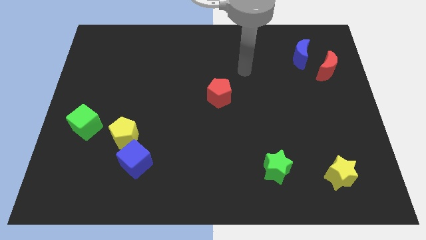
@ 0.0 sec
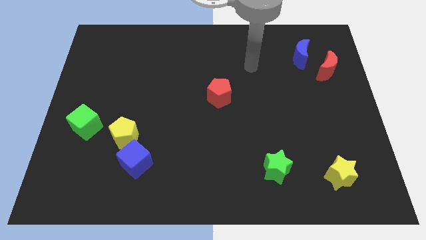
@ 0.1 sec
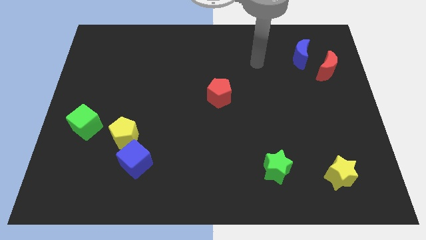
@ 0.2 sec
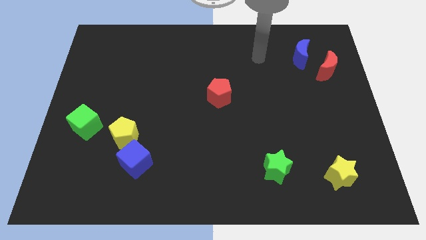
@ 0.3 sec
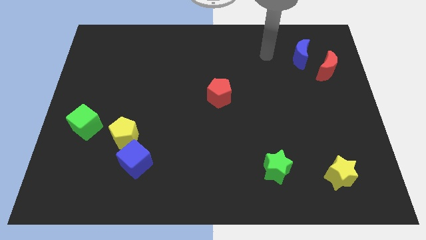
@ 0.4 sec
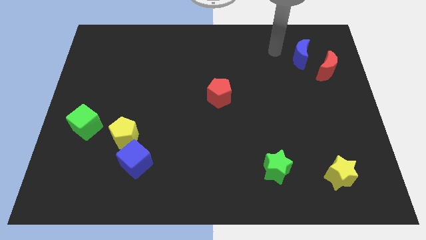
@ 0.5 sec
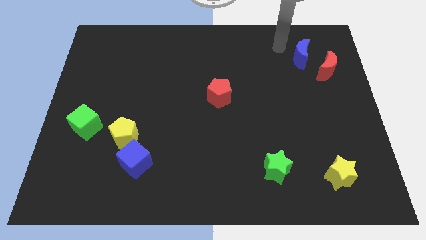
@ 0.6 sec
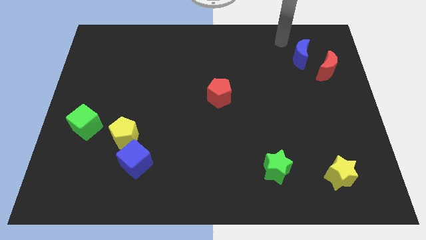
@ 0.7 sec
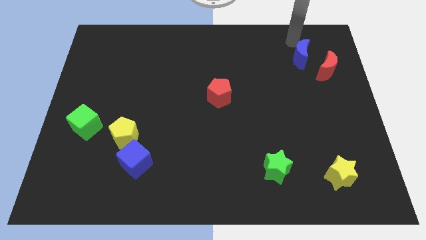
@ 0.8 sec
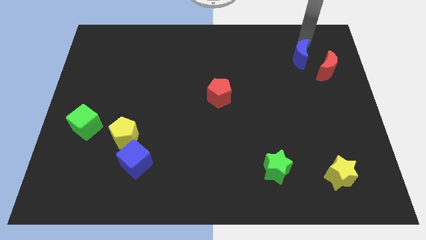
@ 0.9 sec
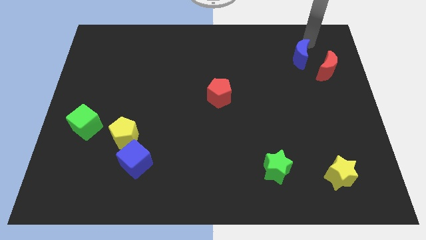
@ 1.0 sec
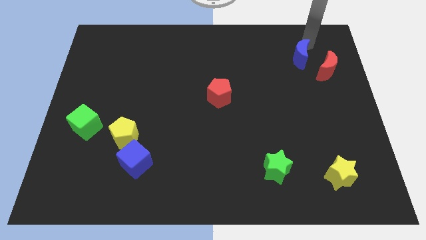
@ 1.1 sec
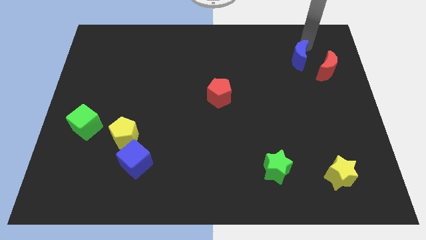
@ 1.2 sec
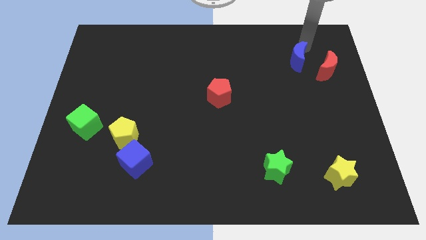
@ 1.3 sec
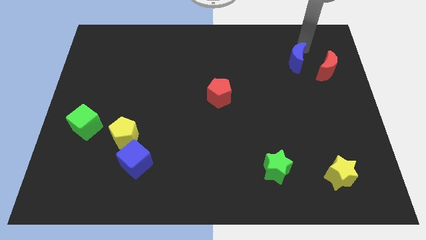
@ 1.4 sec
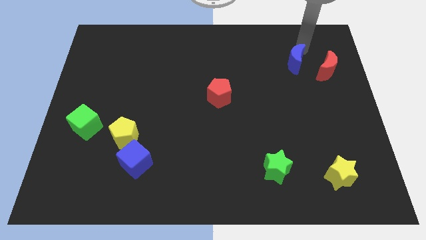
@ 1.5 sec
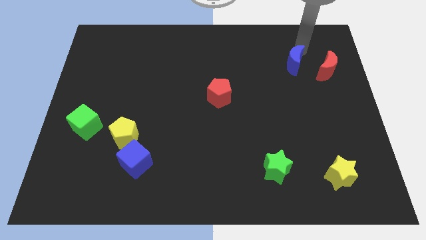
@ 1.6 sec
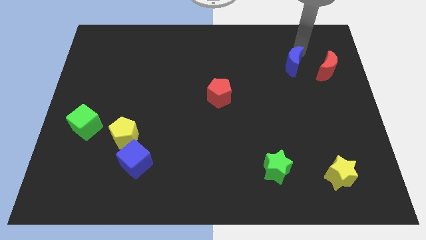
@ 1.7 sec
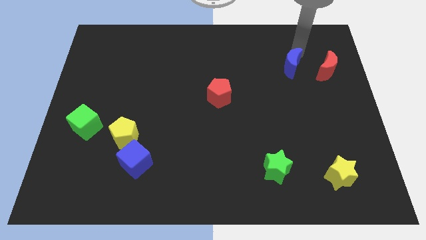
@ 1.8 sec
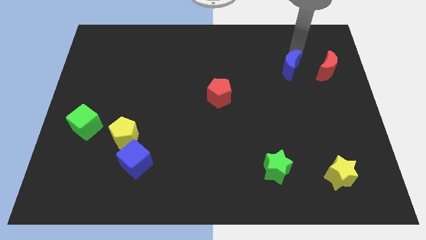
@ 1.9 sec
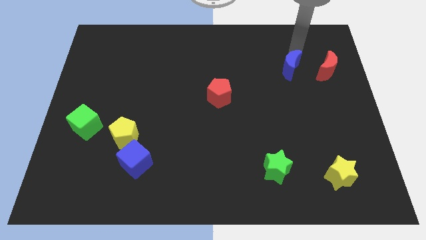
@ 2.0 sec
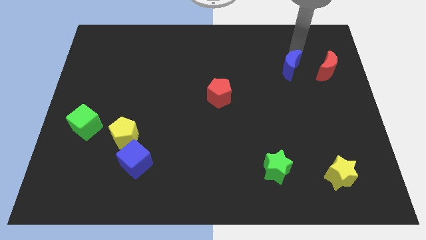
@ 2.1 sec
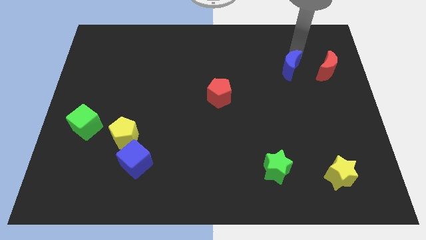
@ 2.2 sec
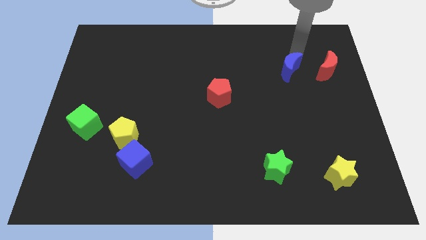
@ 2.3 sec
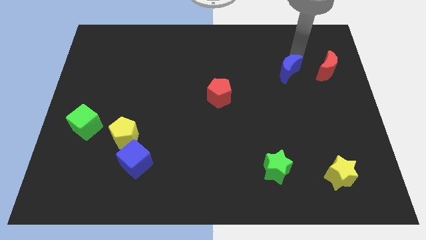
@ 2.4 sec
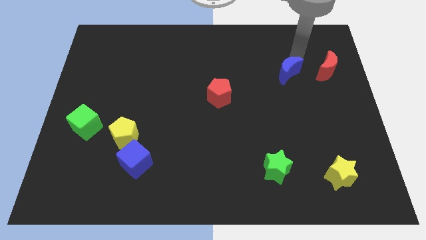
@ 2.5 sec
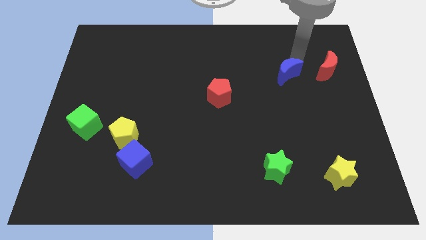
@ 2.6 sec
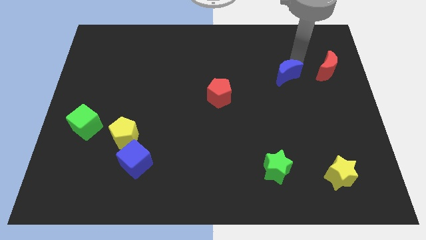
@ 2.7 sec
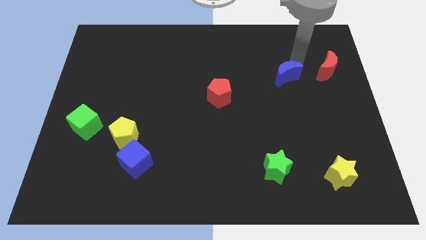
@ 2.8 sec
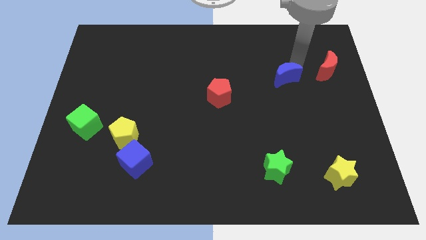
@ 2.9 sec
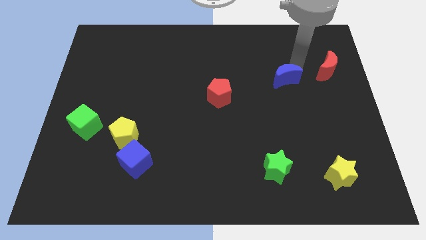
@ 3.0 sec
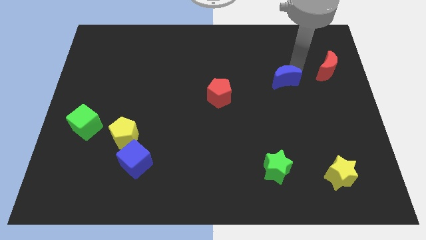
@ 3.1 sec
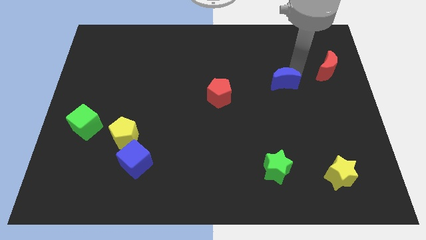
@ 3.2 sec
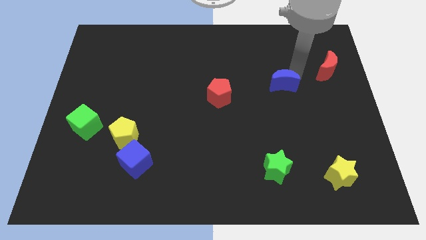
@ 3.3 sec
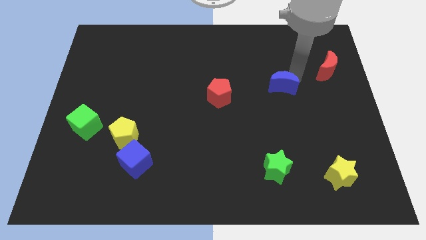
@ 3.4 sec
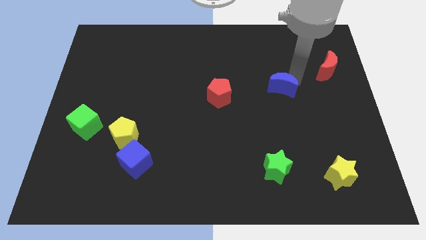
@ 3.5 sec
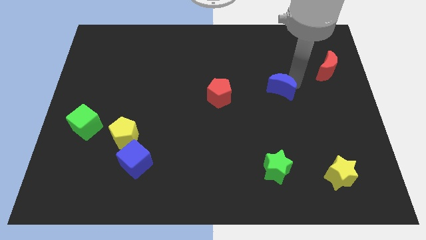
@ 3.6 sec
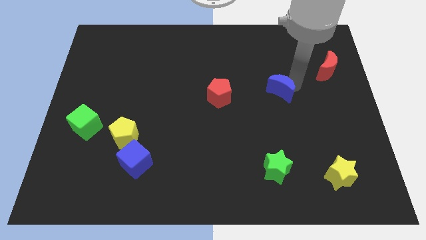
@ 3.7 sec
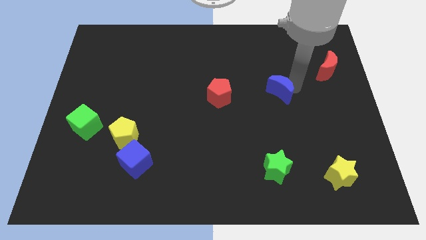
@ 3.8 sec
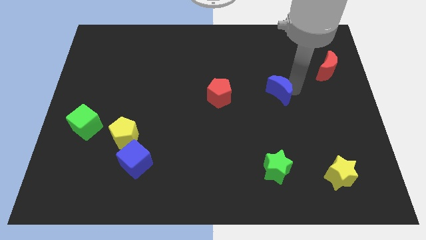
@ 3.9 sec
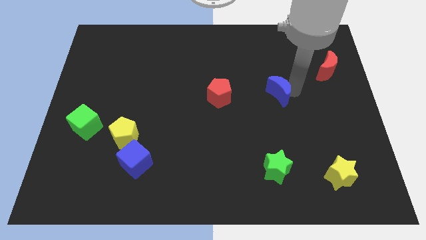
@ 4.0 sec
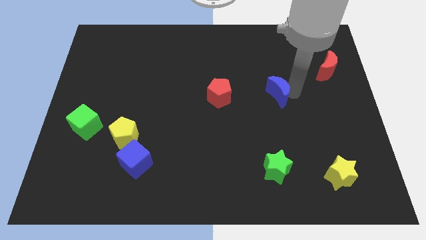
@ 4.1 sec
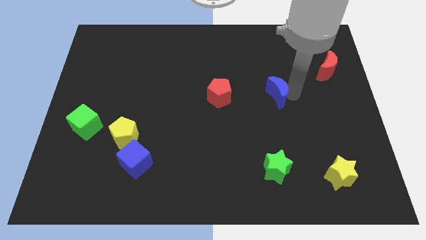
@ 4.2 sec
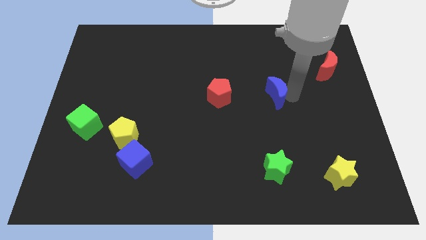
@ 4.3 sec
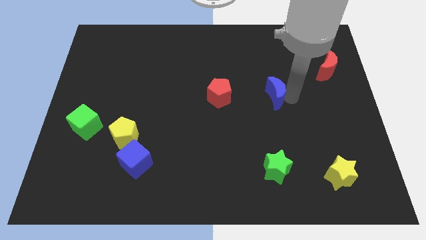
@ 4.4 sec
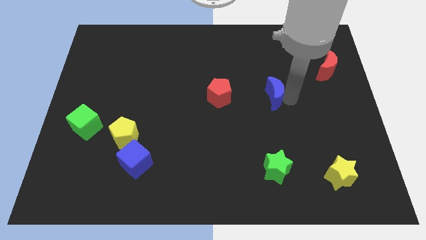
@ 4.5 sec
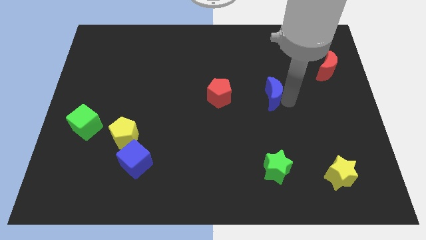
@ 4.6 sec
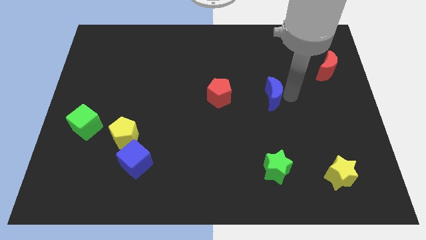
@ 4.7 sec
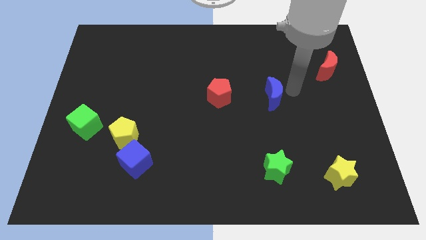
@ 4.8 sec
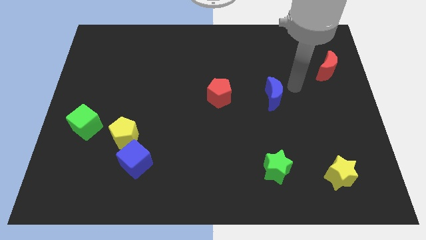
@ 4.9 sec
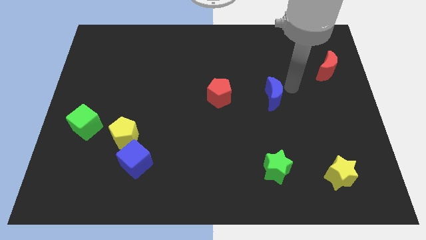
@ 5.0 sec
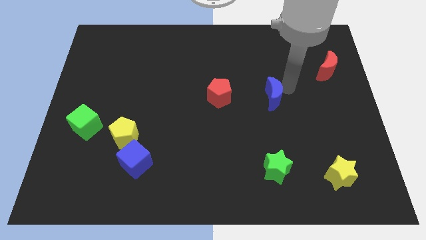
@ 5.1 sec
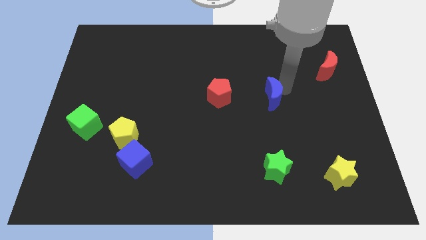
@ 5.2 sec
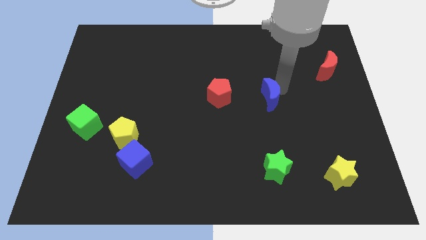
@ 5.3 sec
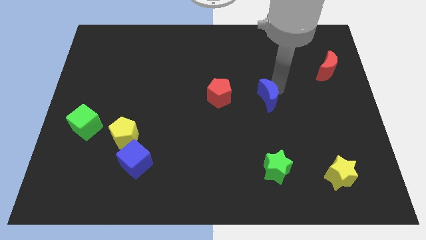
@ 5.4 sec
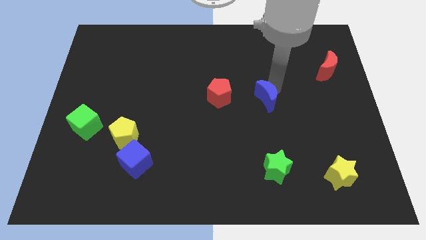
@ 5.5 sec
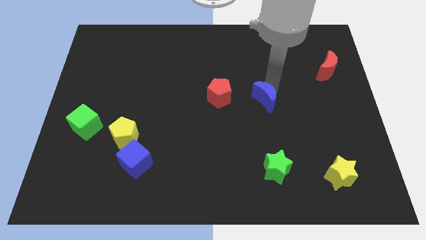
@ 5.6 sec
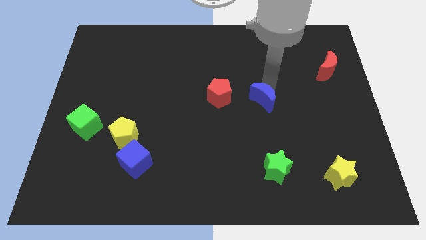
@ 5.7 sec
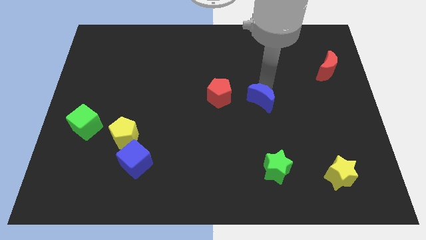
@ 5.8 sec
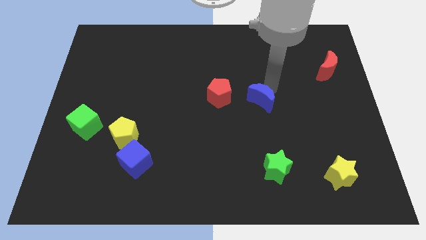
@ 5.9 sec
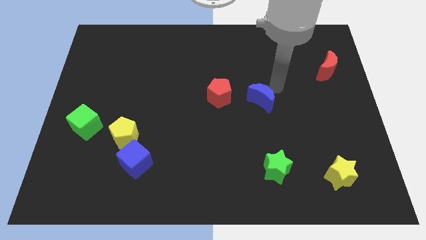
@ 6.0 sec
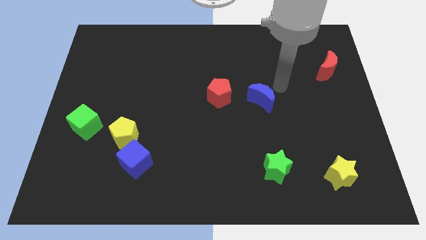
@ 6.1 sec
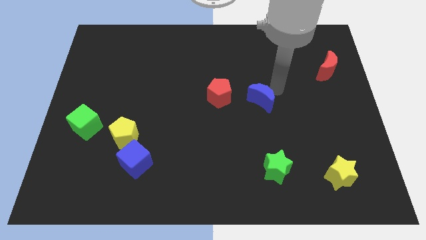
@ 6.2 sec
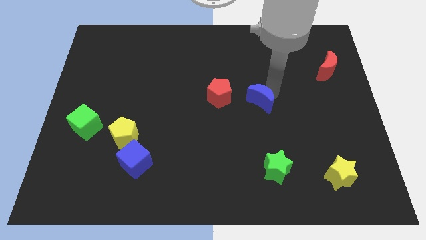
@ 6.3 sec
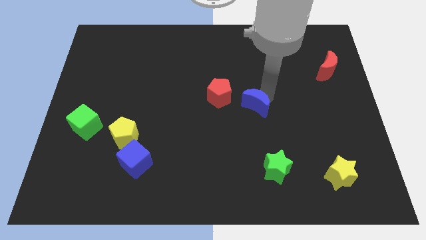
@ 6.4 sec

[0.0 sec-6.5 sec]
slide the blue moon diagonally down and to the right of the red pentagon

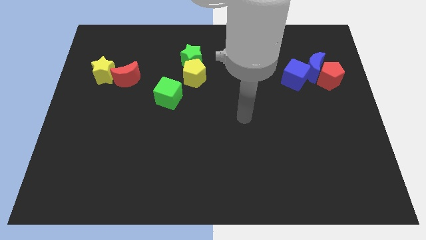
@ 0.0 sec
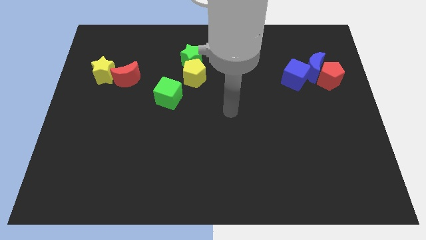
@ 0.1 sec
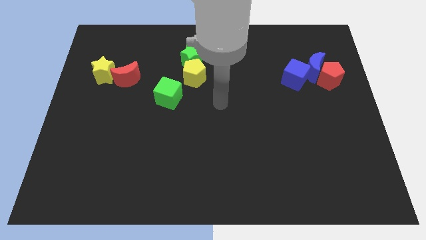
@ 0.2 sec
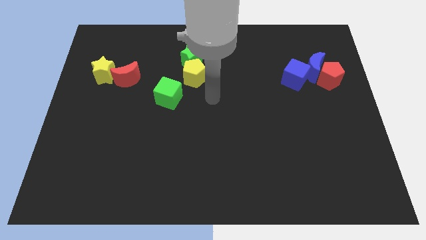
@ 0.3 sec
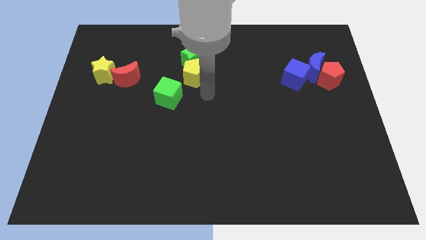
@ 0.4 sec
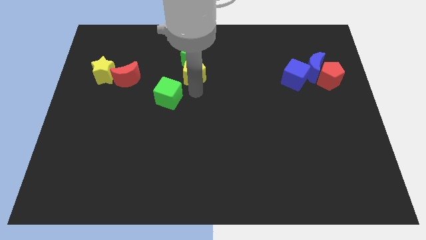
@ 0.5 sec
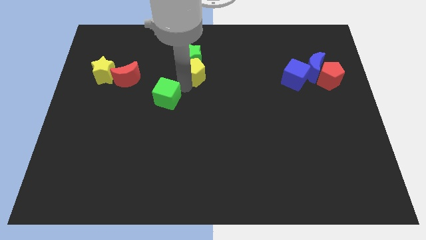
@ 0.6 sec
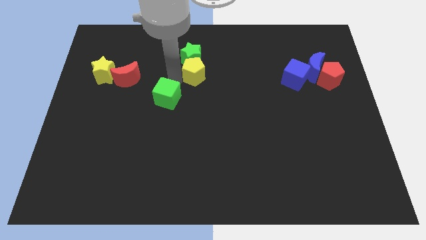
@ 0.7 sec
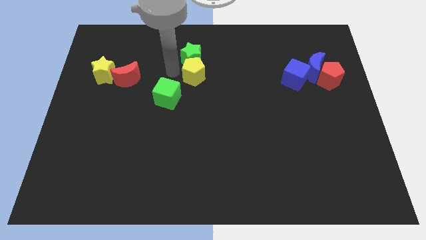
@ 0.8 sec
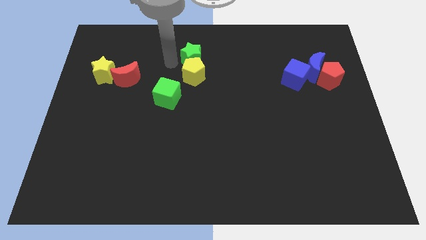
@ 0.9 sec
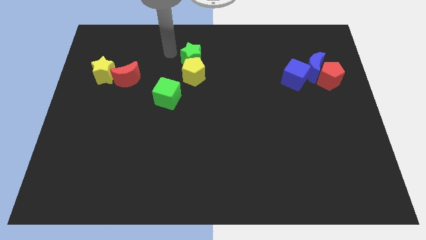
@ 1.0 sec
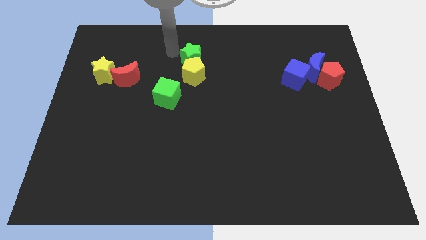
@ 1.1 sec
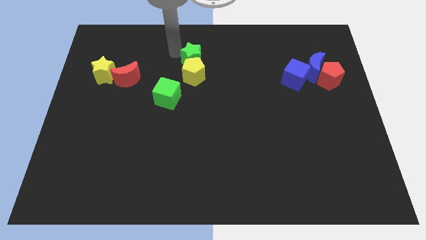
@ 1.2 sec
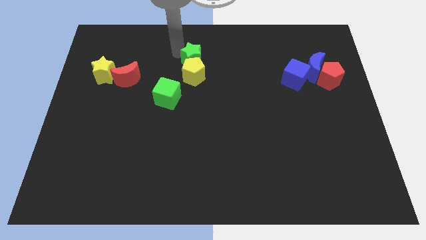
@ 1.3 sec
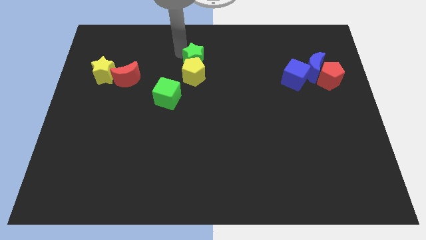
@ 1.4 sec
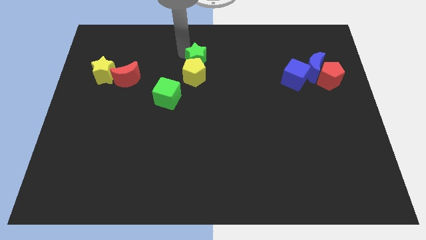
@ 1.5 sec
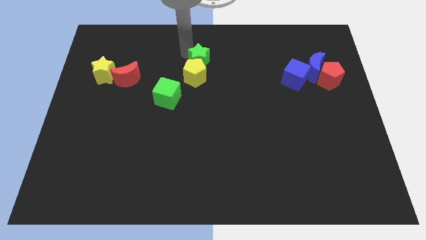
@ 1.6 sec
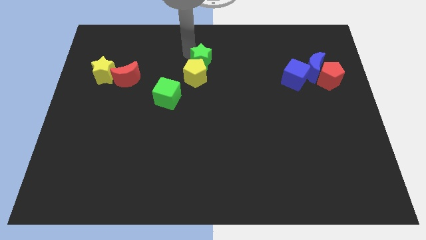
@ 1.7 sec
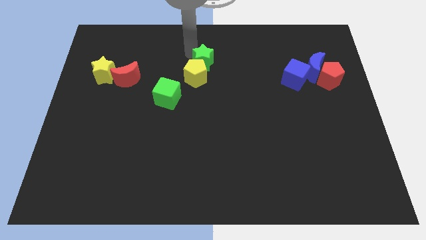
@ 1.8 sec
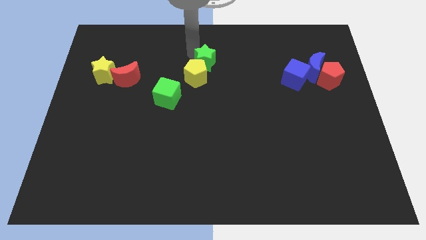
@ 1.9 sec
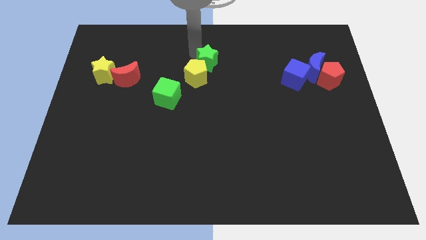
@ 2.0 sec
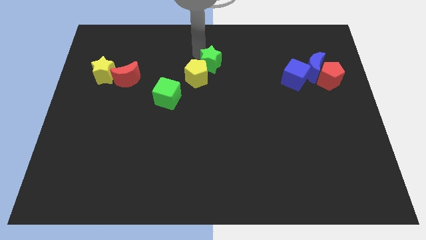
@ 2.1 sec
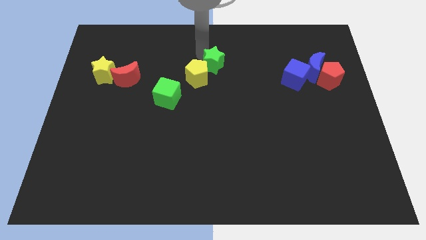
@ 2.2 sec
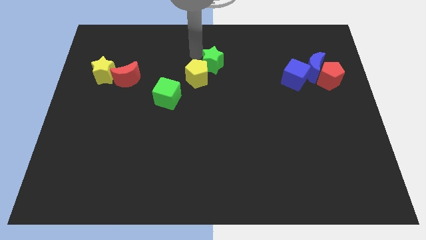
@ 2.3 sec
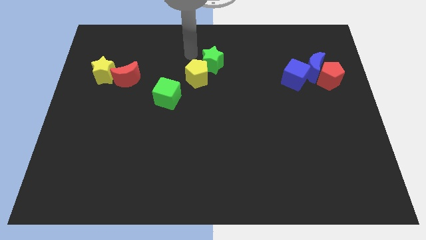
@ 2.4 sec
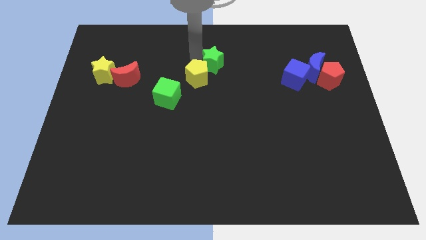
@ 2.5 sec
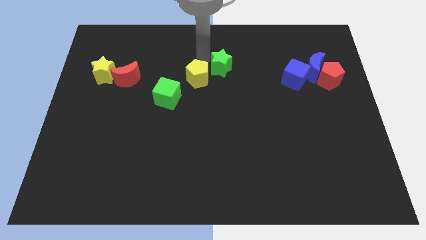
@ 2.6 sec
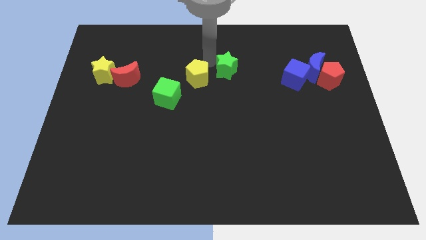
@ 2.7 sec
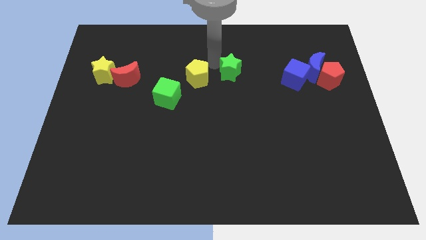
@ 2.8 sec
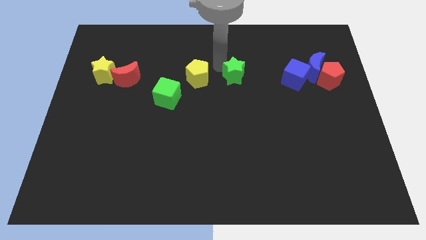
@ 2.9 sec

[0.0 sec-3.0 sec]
move the green star to the left side of the blue cube
